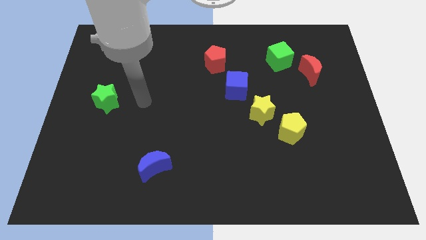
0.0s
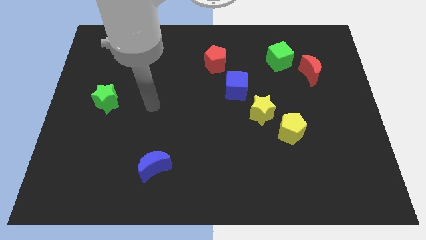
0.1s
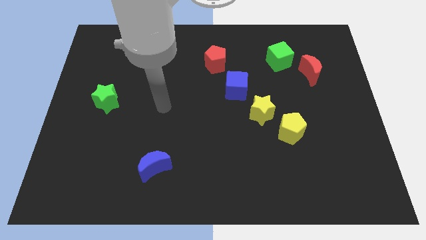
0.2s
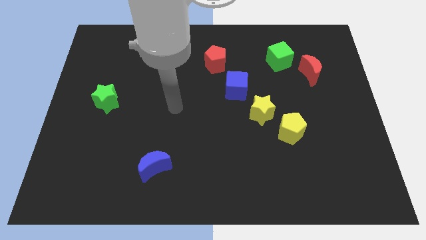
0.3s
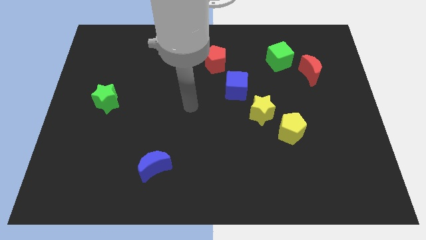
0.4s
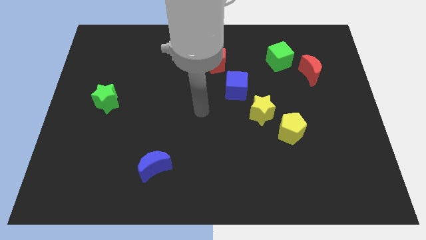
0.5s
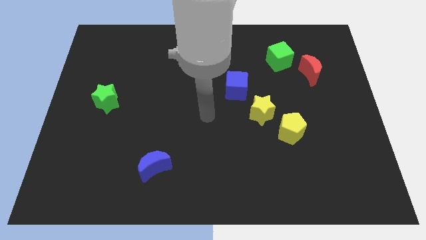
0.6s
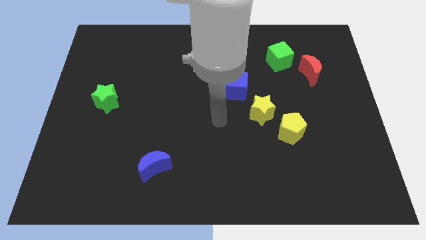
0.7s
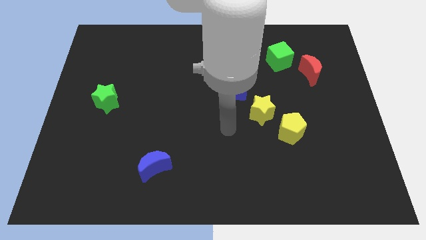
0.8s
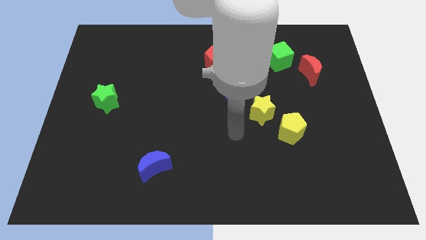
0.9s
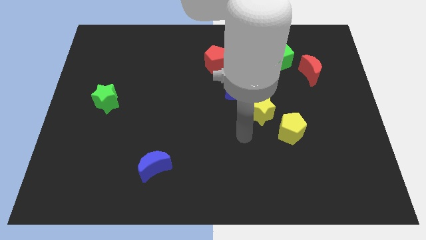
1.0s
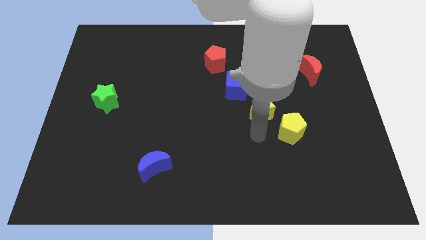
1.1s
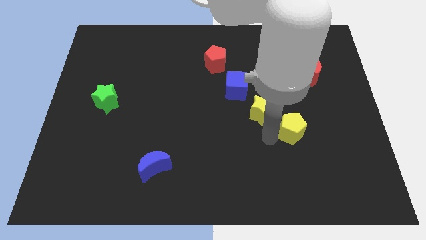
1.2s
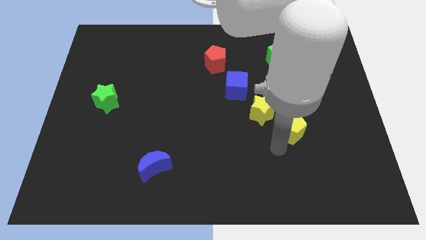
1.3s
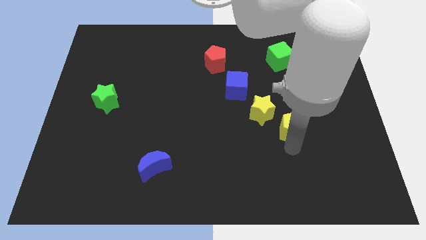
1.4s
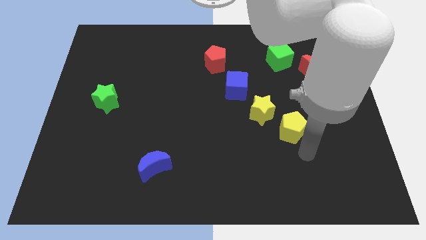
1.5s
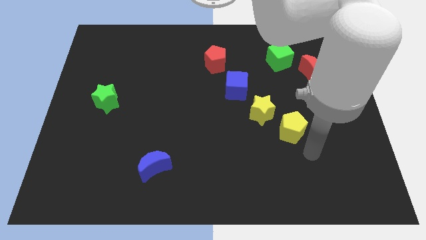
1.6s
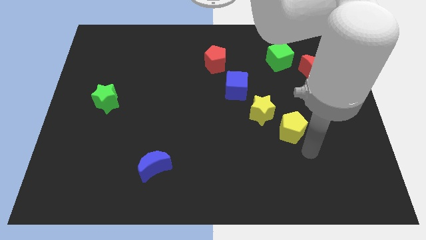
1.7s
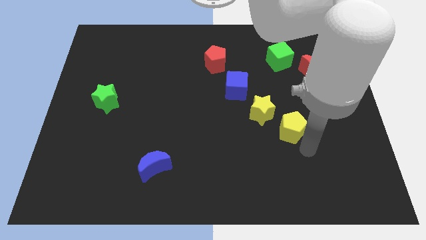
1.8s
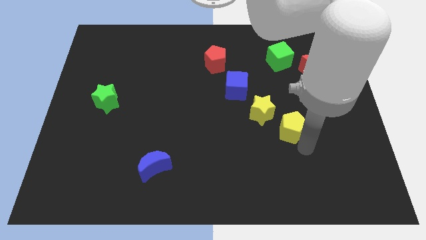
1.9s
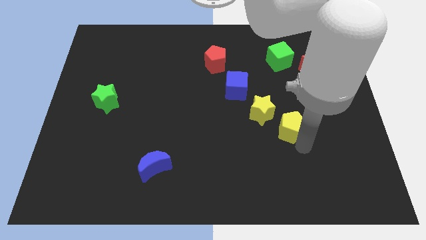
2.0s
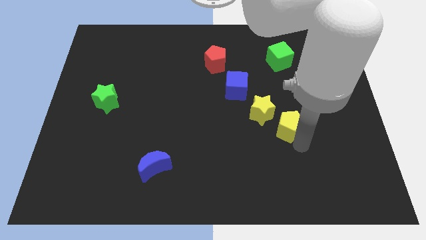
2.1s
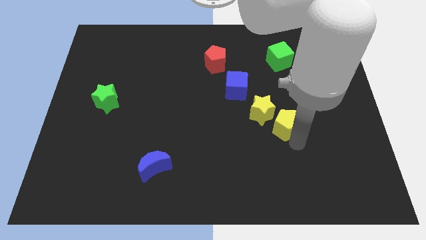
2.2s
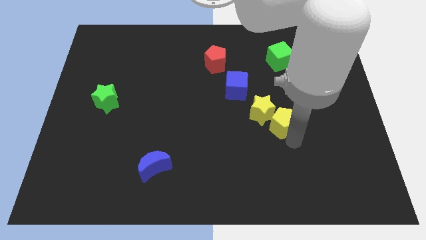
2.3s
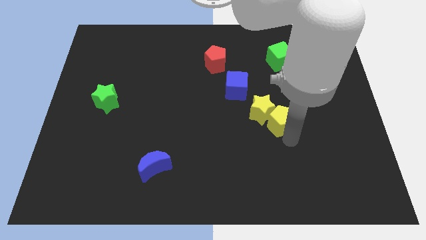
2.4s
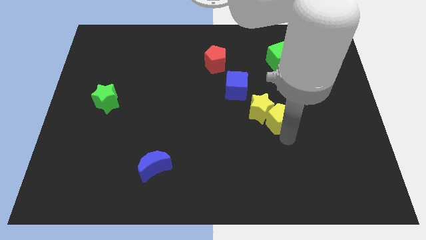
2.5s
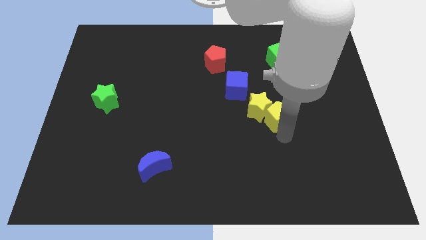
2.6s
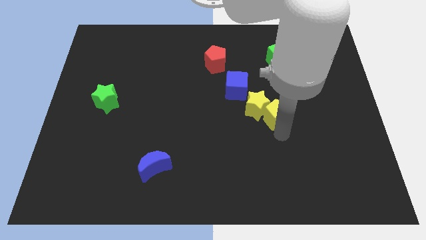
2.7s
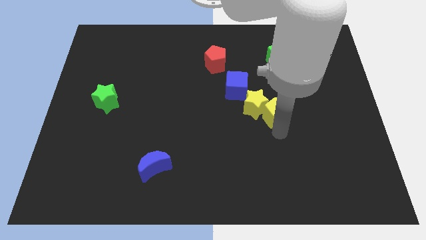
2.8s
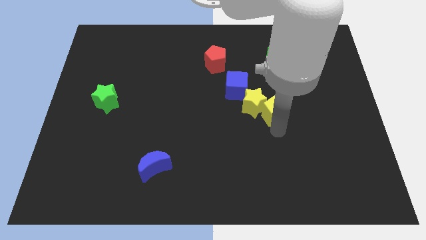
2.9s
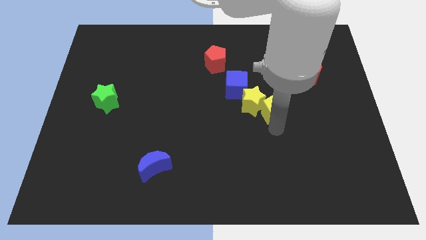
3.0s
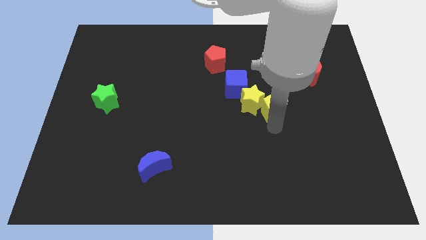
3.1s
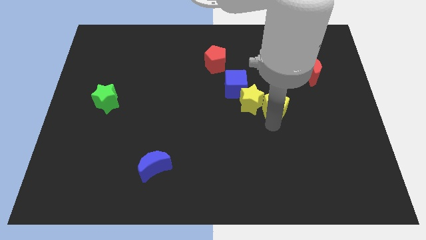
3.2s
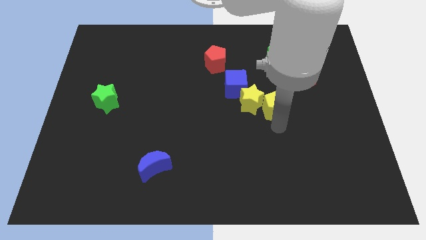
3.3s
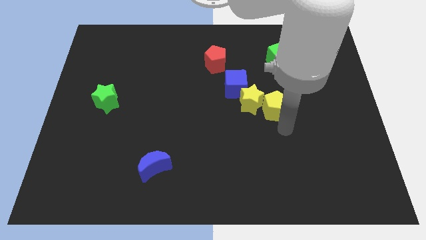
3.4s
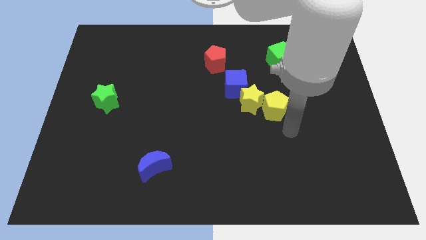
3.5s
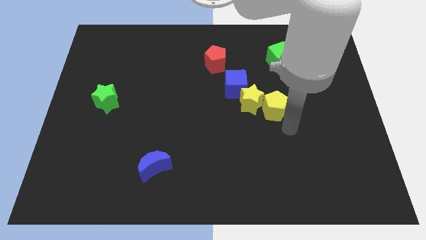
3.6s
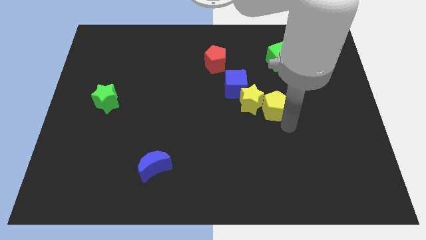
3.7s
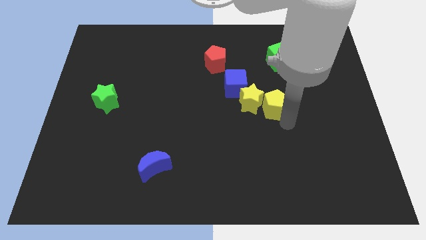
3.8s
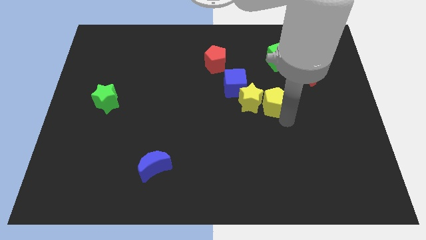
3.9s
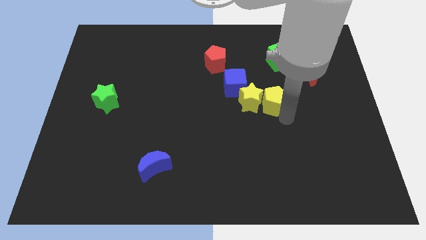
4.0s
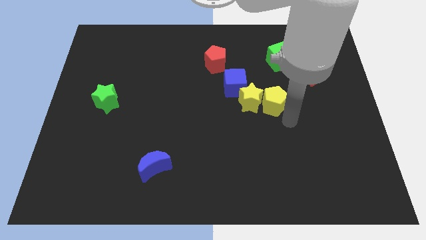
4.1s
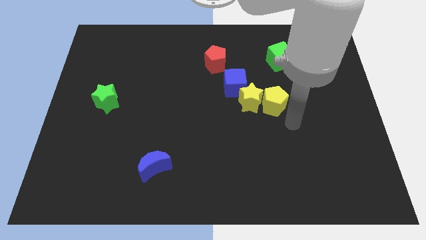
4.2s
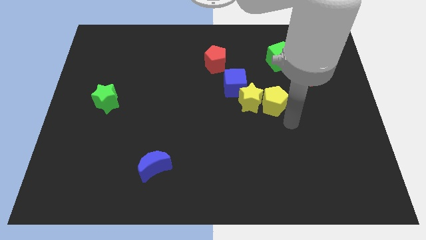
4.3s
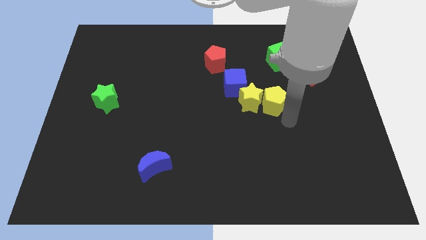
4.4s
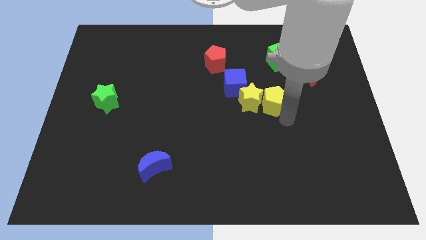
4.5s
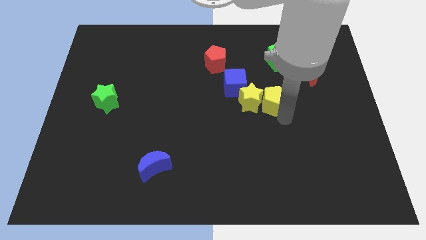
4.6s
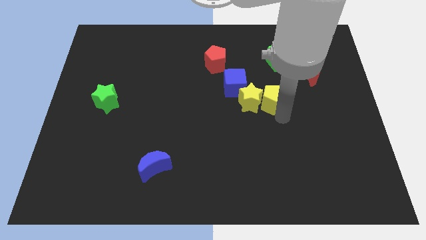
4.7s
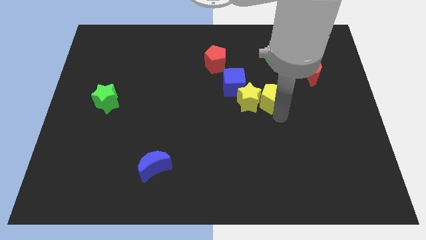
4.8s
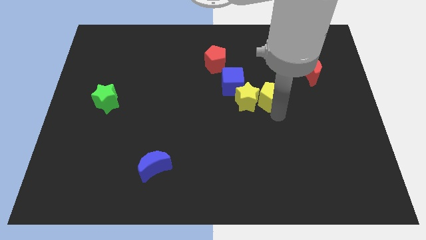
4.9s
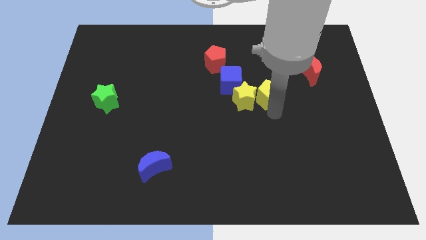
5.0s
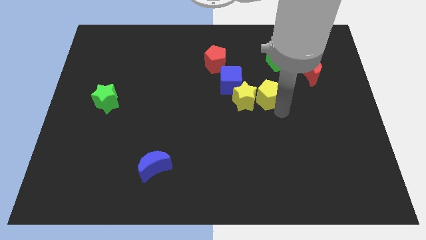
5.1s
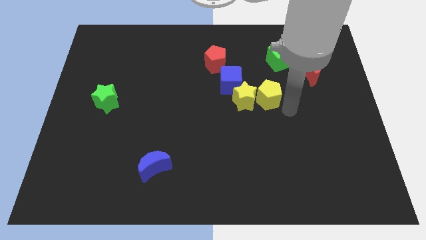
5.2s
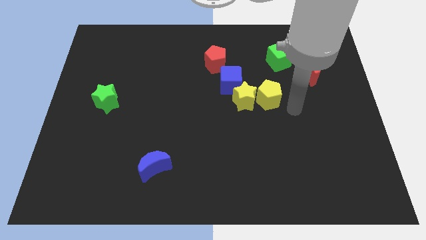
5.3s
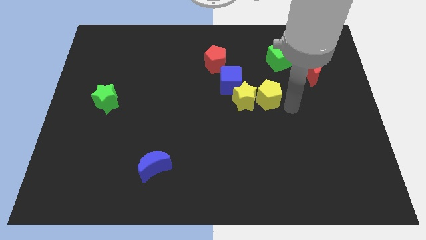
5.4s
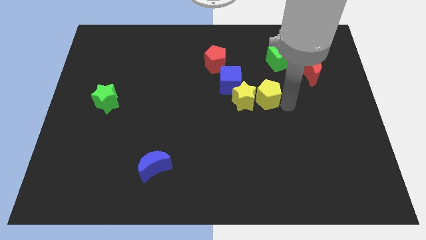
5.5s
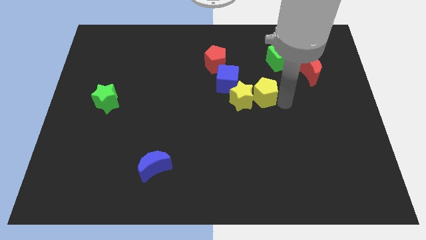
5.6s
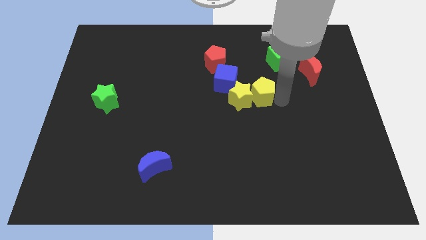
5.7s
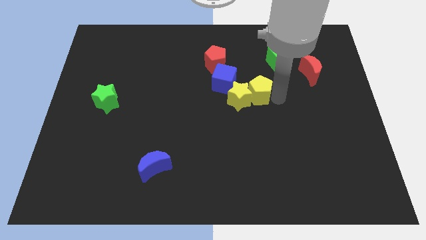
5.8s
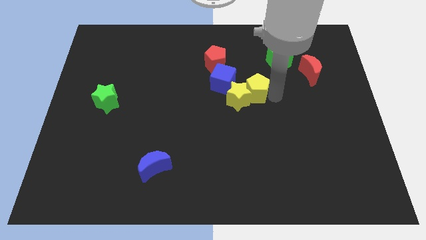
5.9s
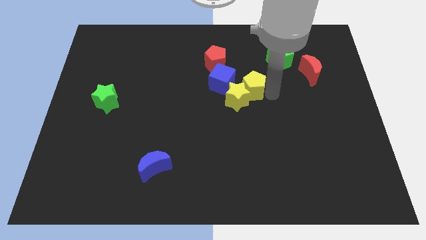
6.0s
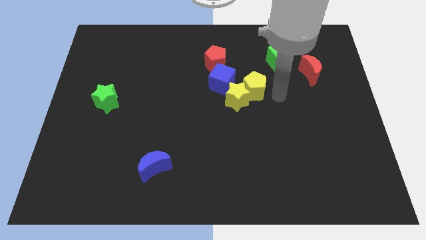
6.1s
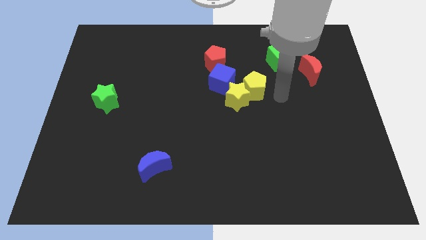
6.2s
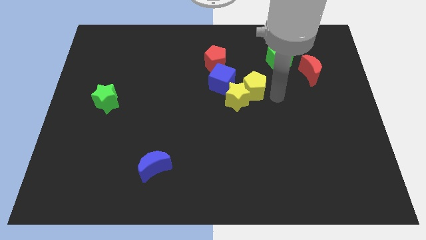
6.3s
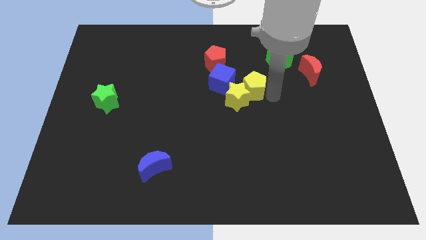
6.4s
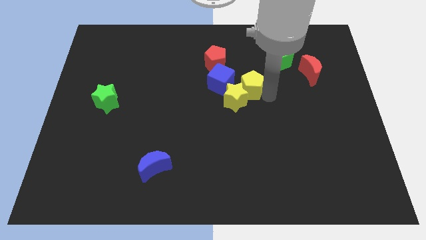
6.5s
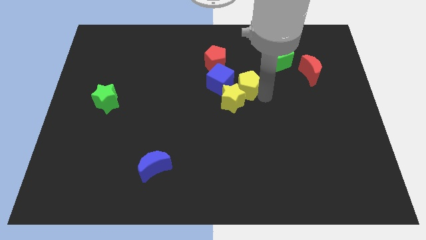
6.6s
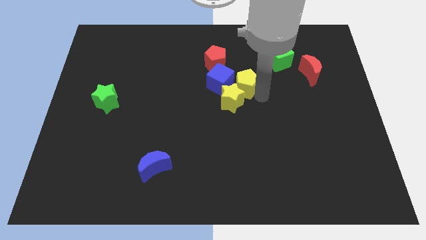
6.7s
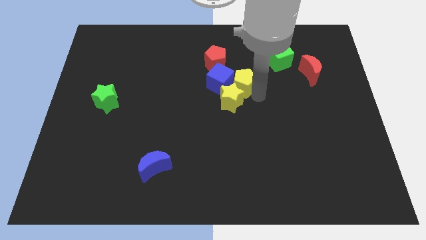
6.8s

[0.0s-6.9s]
move the yellow pentagon to the blue cube
